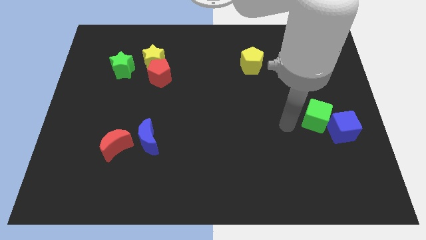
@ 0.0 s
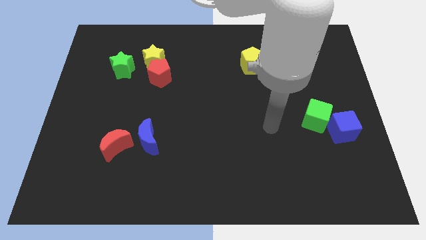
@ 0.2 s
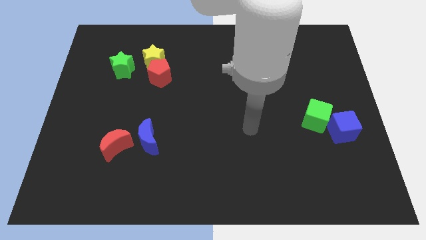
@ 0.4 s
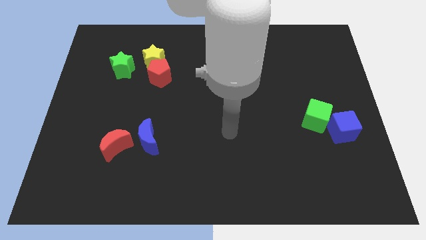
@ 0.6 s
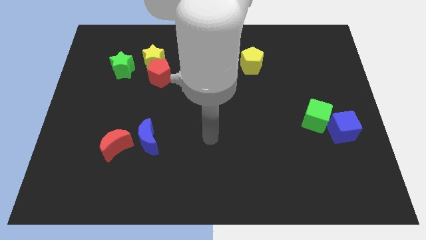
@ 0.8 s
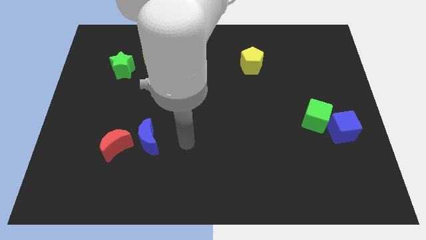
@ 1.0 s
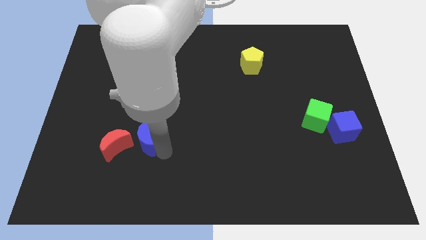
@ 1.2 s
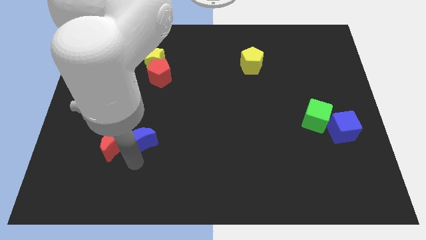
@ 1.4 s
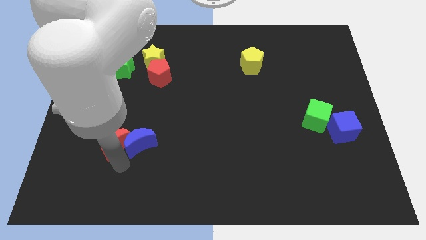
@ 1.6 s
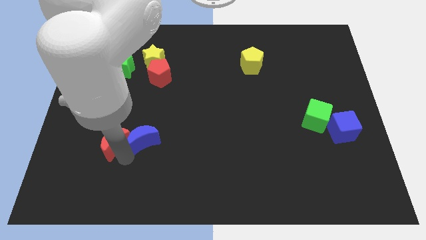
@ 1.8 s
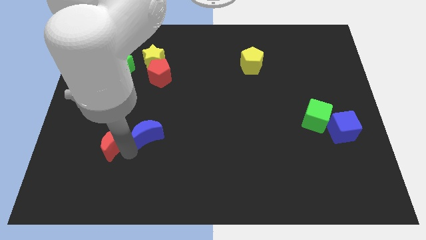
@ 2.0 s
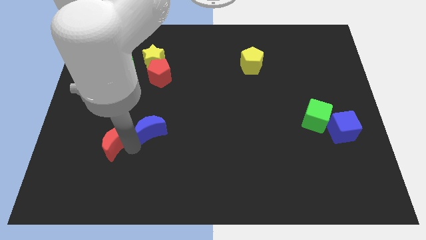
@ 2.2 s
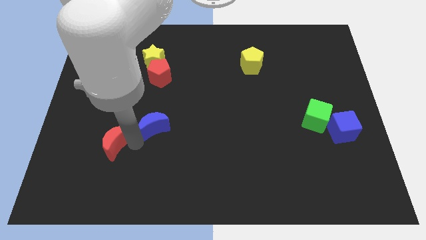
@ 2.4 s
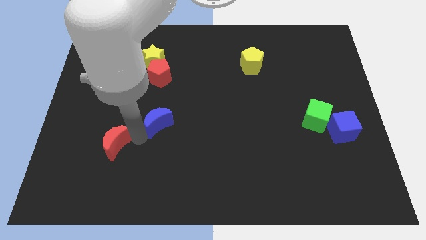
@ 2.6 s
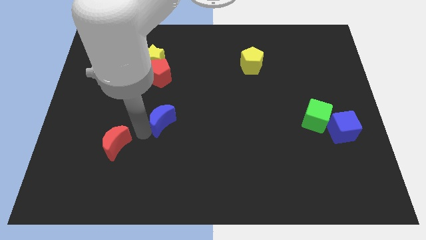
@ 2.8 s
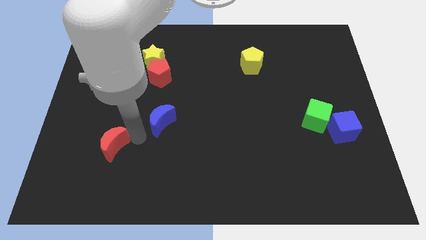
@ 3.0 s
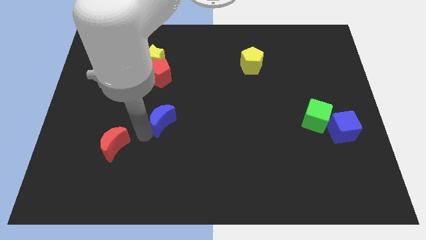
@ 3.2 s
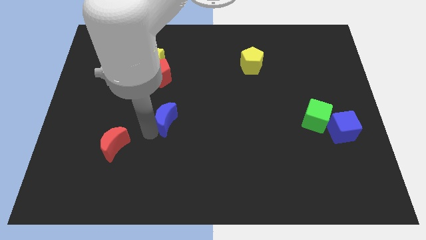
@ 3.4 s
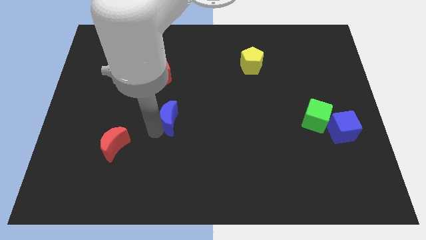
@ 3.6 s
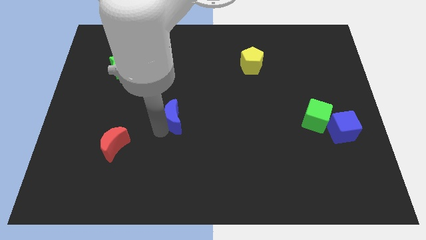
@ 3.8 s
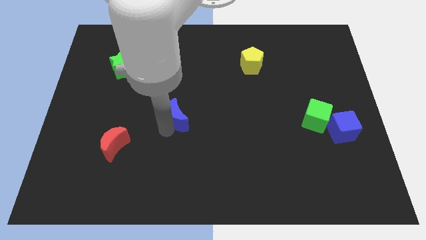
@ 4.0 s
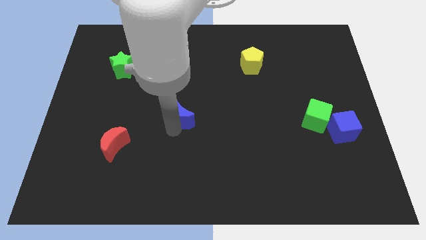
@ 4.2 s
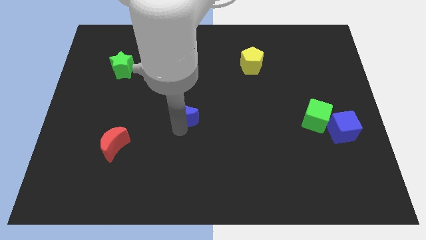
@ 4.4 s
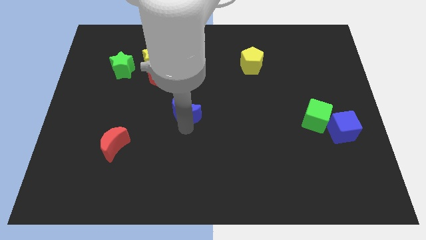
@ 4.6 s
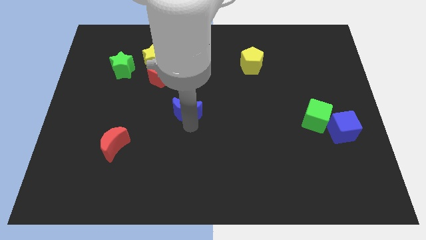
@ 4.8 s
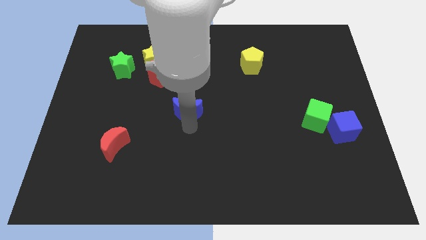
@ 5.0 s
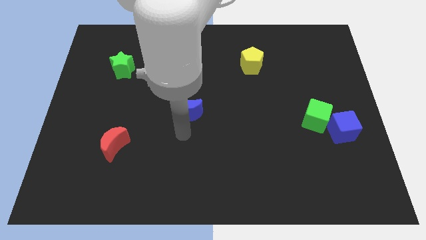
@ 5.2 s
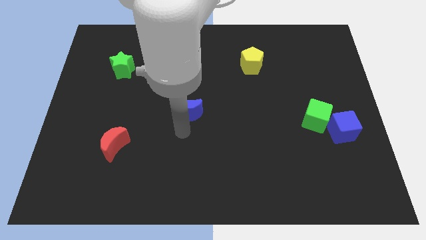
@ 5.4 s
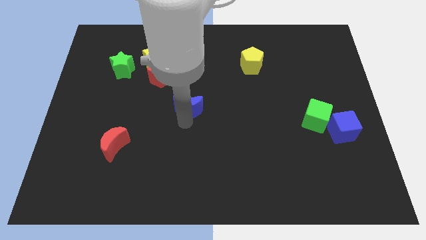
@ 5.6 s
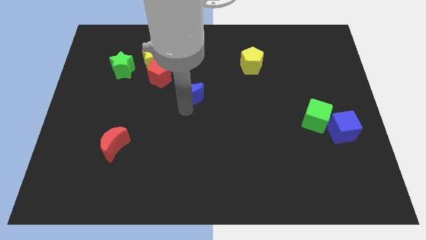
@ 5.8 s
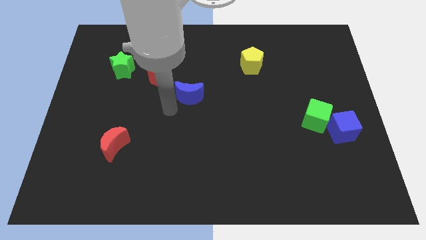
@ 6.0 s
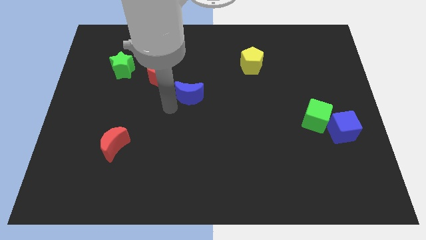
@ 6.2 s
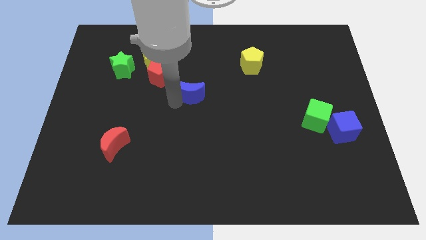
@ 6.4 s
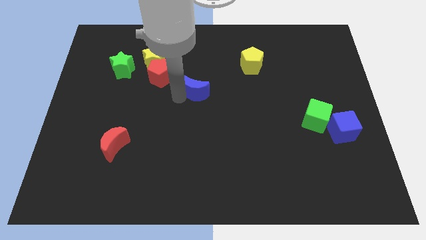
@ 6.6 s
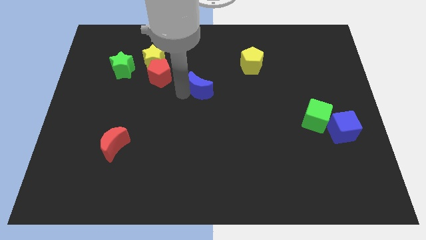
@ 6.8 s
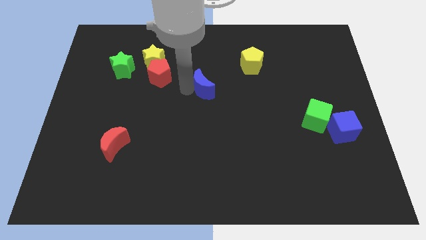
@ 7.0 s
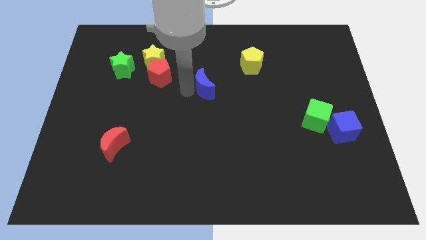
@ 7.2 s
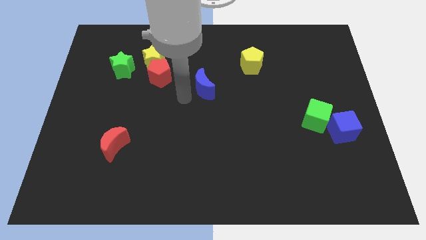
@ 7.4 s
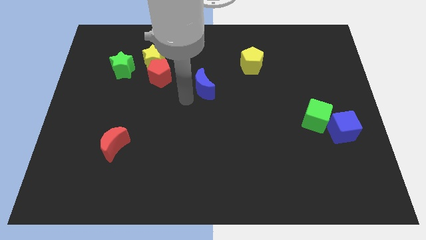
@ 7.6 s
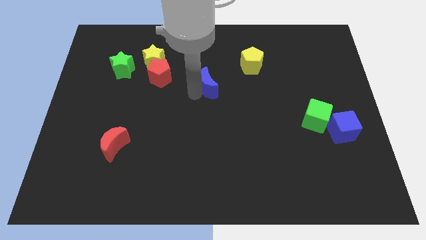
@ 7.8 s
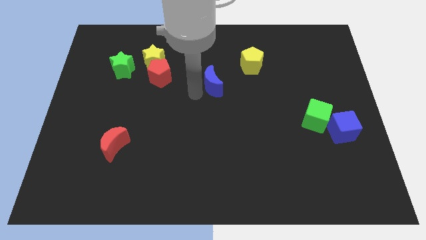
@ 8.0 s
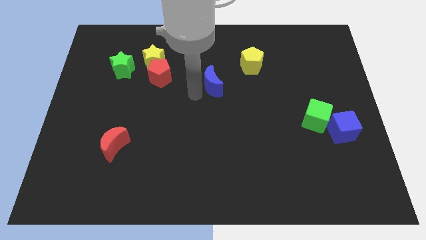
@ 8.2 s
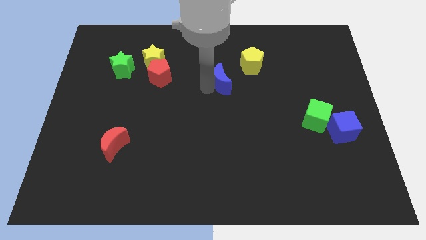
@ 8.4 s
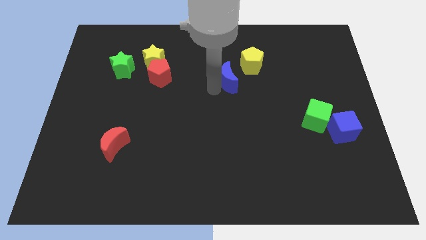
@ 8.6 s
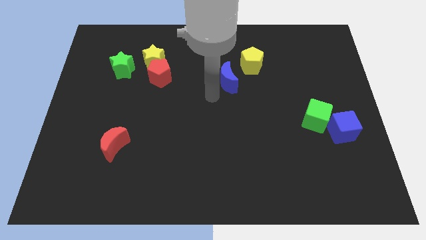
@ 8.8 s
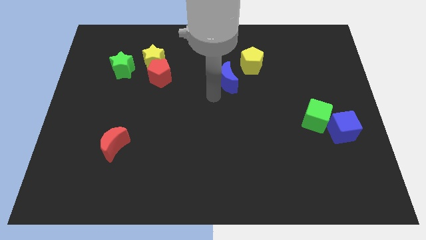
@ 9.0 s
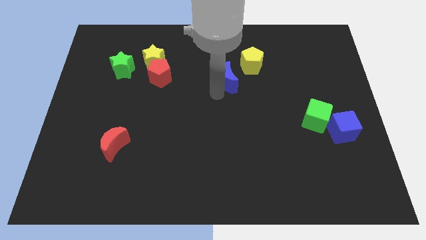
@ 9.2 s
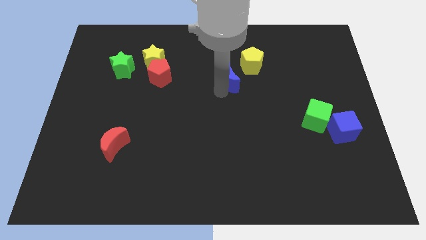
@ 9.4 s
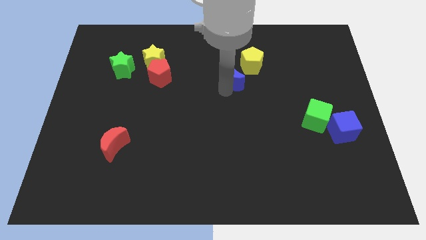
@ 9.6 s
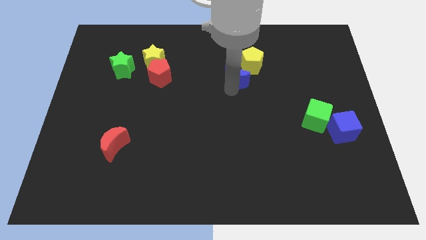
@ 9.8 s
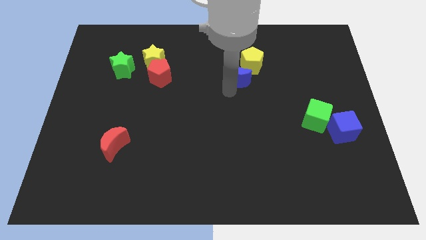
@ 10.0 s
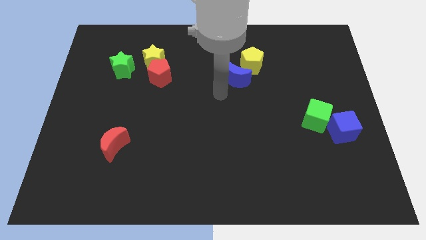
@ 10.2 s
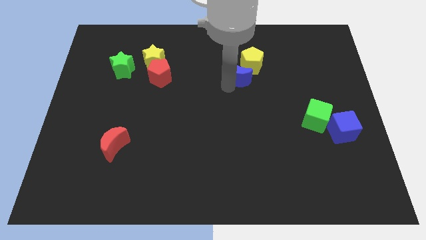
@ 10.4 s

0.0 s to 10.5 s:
slide the blue moon close to the yellow pentagon

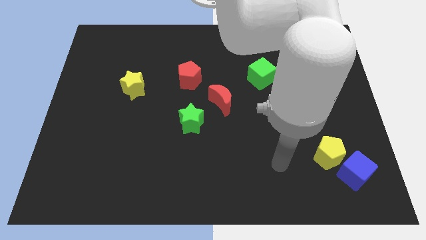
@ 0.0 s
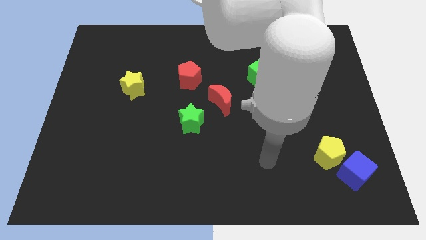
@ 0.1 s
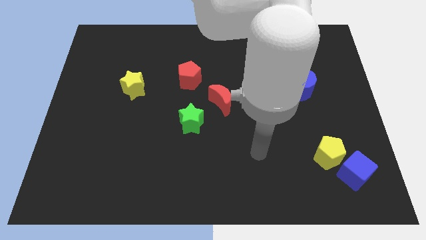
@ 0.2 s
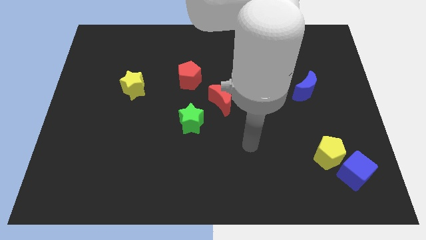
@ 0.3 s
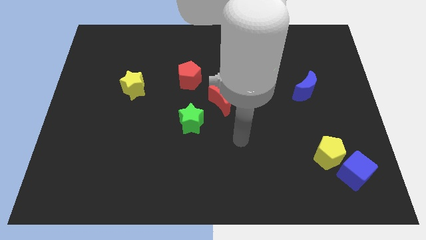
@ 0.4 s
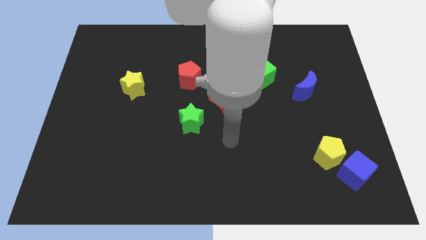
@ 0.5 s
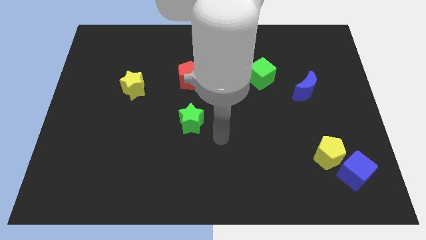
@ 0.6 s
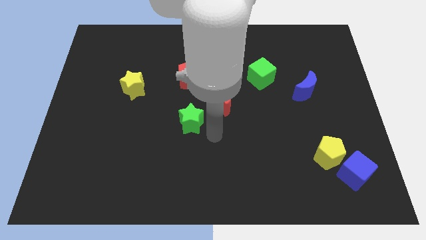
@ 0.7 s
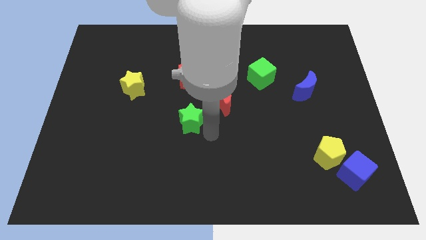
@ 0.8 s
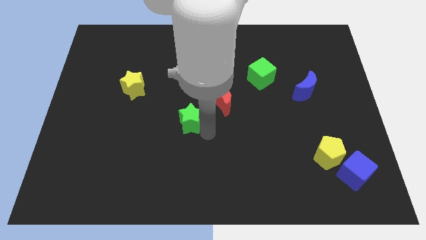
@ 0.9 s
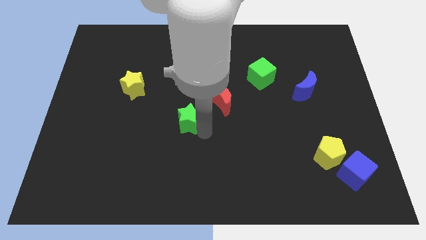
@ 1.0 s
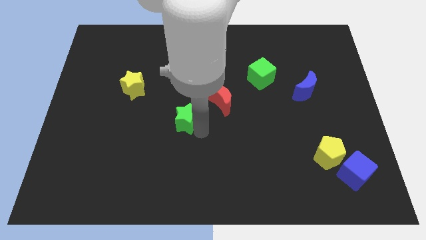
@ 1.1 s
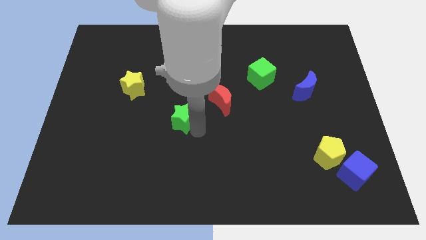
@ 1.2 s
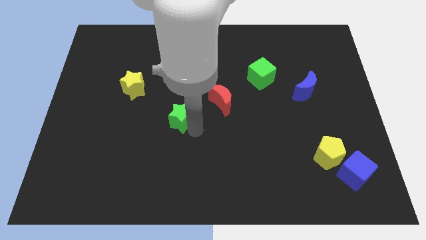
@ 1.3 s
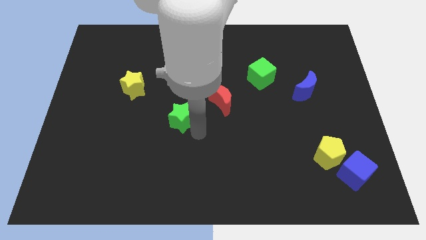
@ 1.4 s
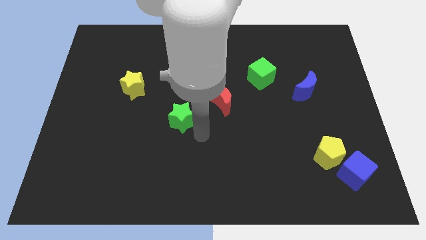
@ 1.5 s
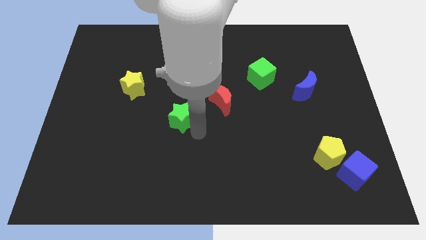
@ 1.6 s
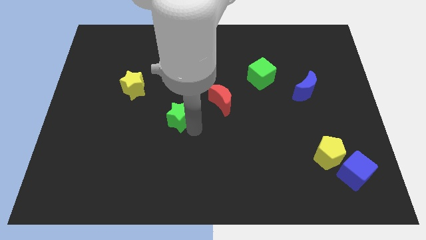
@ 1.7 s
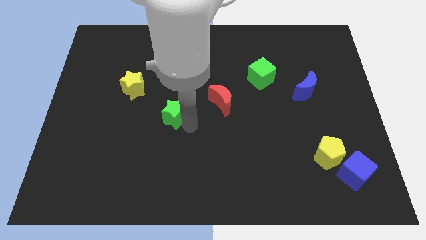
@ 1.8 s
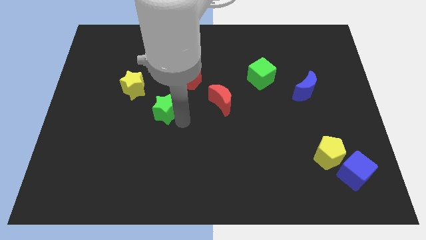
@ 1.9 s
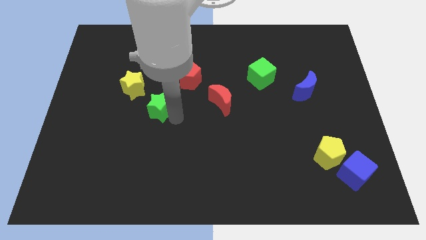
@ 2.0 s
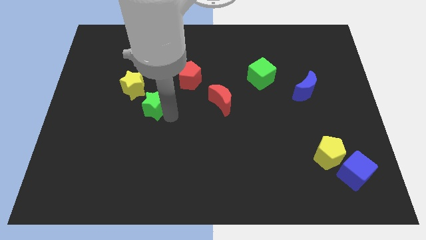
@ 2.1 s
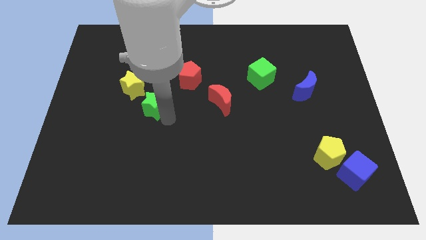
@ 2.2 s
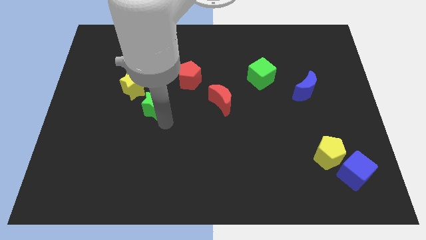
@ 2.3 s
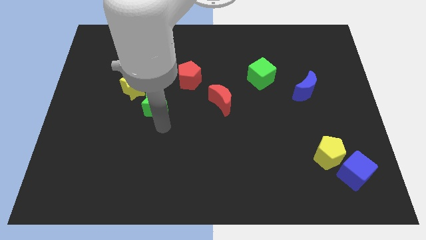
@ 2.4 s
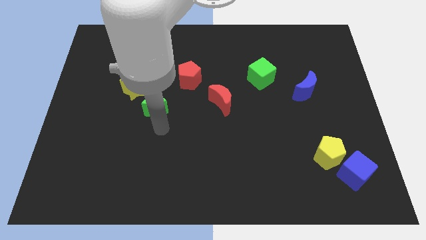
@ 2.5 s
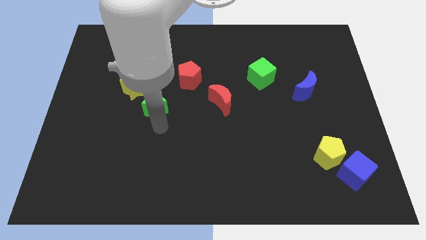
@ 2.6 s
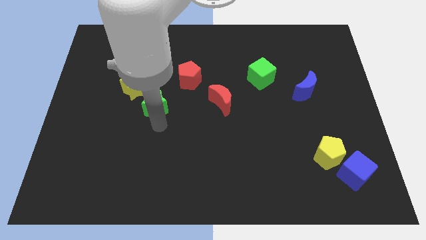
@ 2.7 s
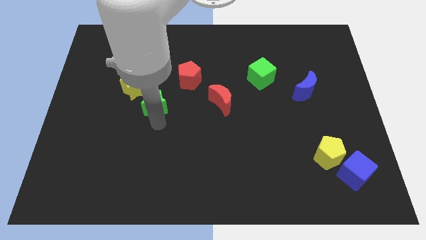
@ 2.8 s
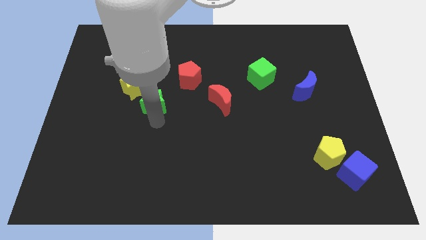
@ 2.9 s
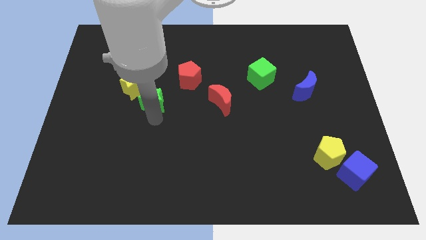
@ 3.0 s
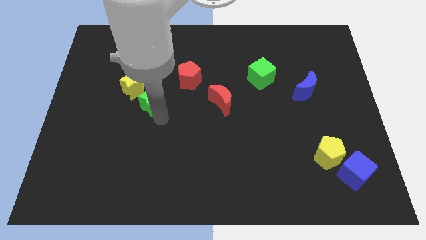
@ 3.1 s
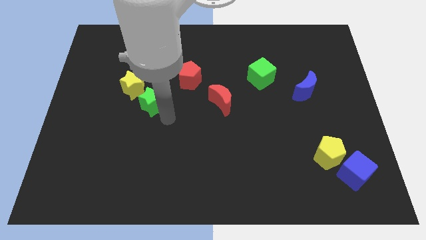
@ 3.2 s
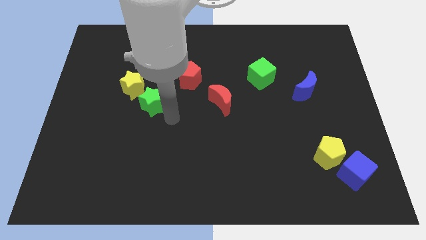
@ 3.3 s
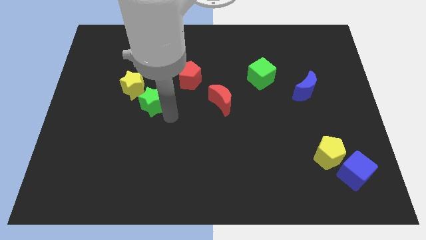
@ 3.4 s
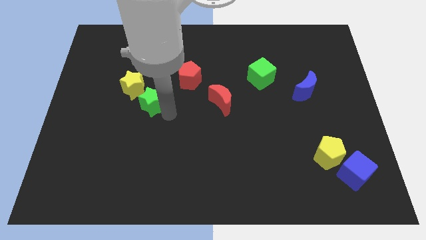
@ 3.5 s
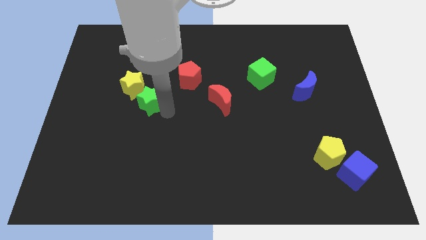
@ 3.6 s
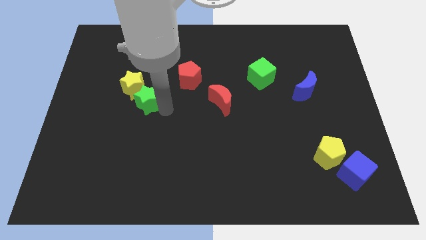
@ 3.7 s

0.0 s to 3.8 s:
put the green star close to the yellow star
